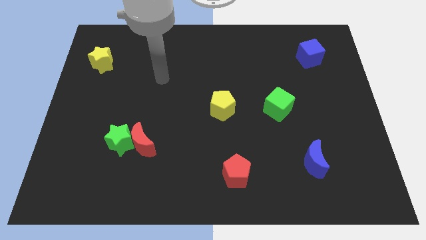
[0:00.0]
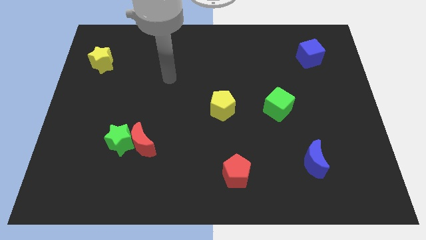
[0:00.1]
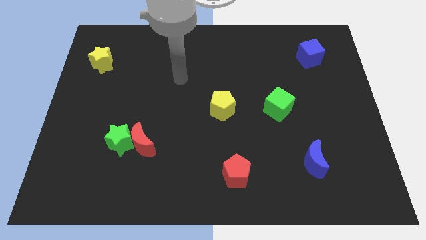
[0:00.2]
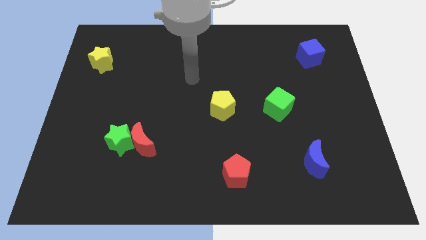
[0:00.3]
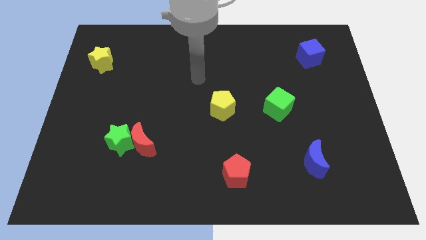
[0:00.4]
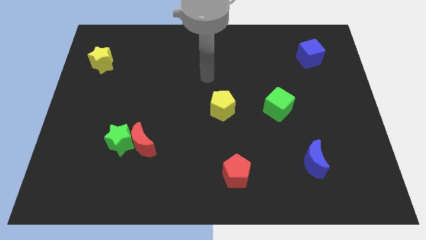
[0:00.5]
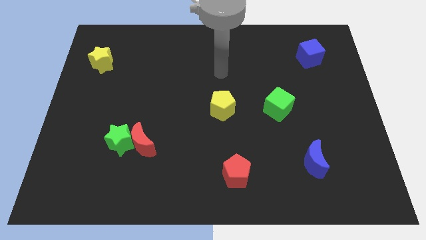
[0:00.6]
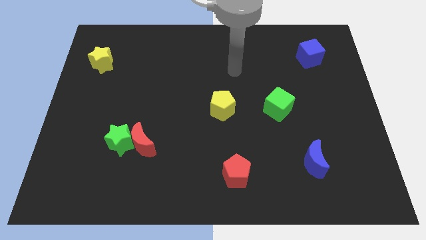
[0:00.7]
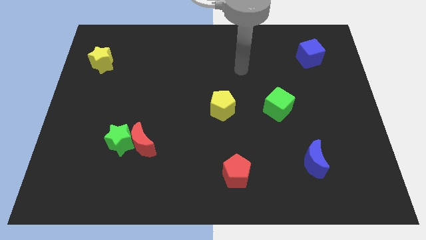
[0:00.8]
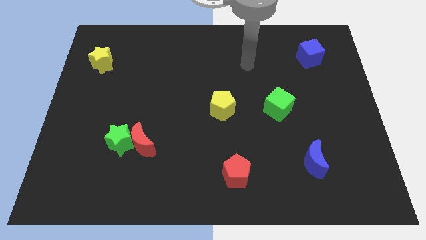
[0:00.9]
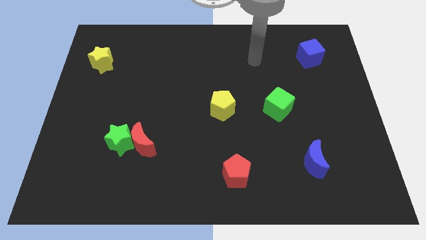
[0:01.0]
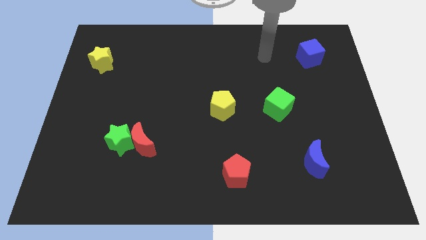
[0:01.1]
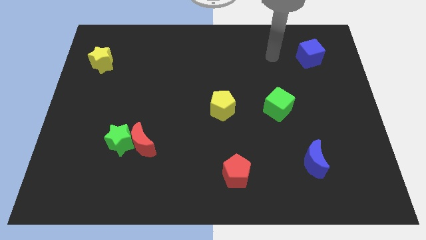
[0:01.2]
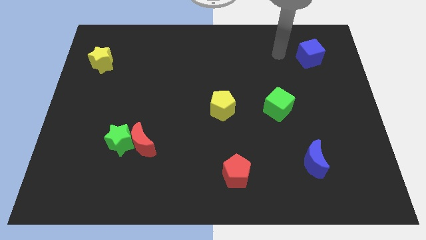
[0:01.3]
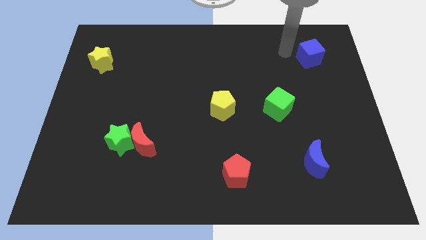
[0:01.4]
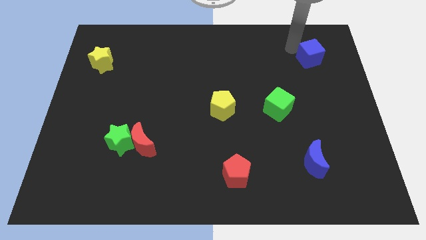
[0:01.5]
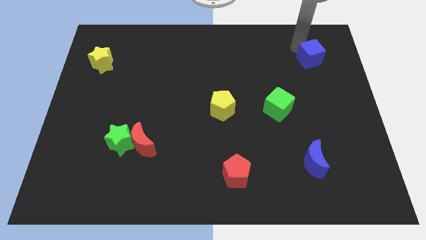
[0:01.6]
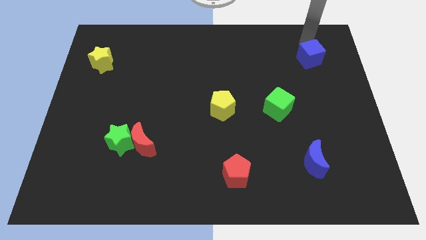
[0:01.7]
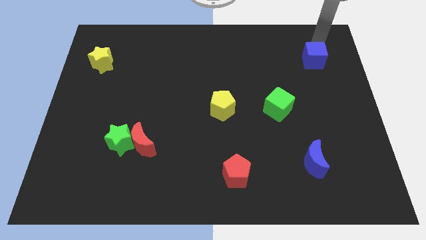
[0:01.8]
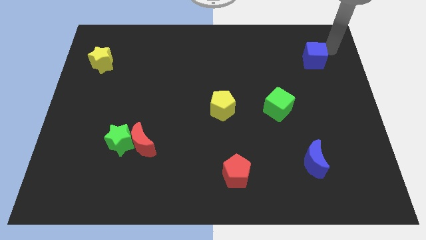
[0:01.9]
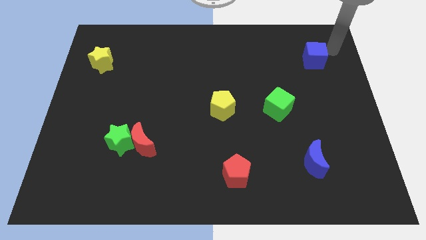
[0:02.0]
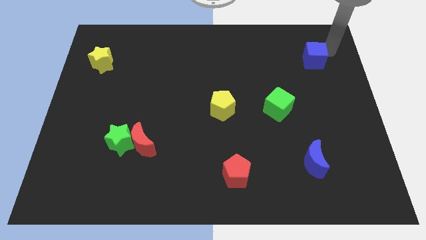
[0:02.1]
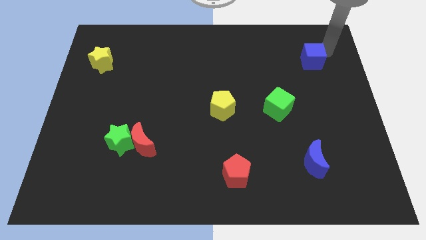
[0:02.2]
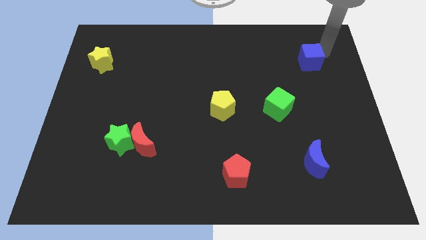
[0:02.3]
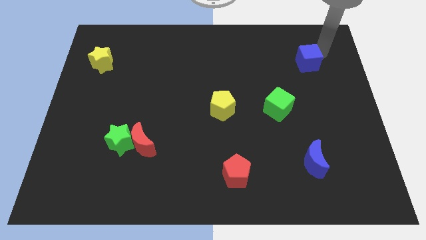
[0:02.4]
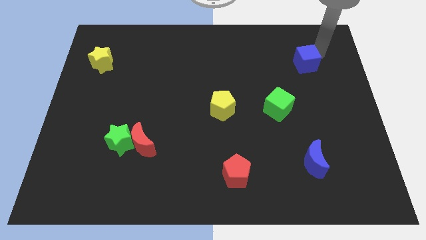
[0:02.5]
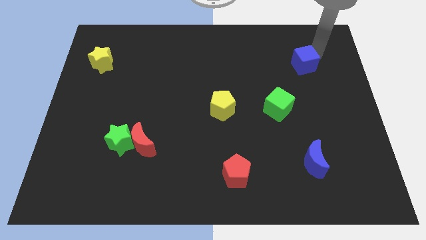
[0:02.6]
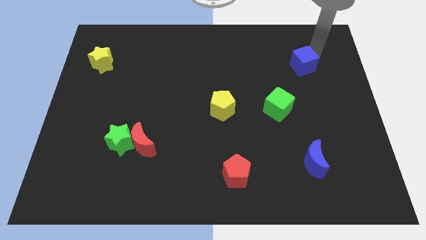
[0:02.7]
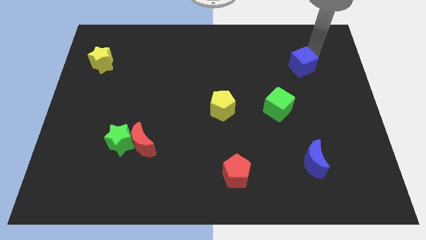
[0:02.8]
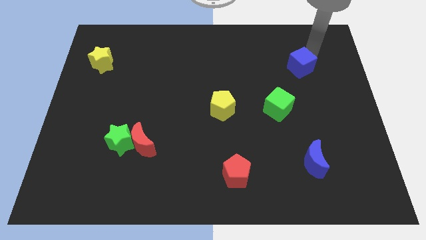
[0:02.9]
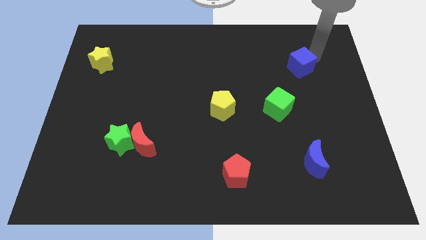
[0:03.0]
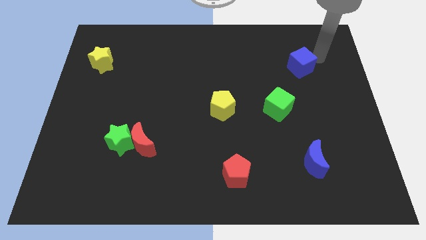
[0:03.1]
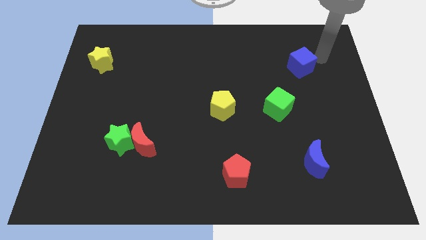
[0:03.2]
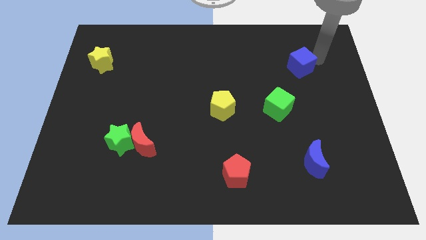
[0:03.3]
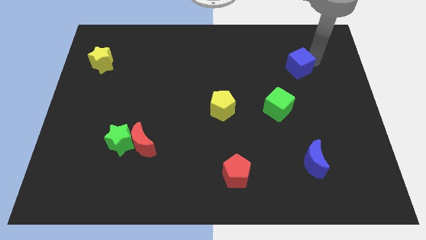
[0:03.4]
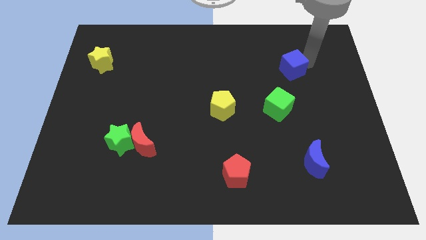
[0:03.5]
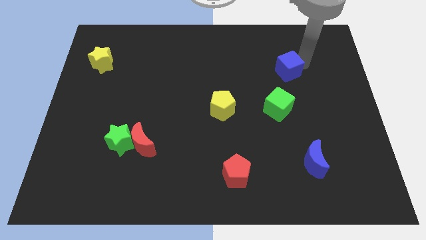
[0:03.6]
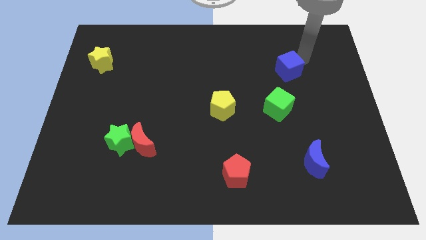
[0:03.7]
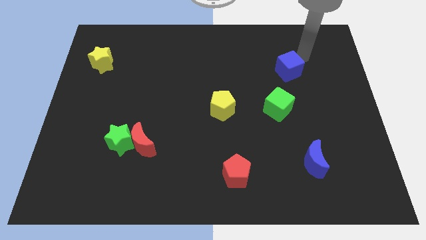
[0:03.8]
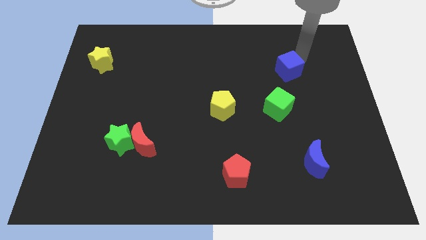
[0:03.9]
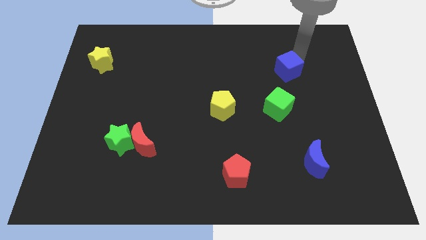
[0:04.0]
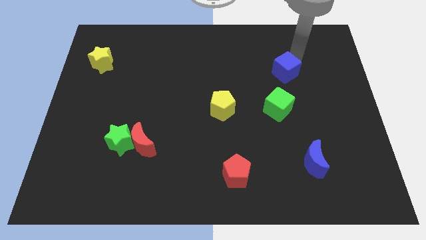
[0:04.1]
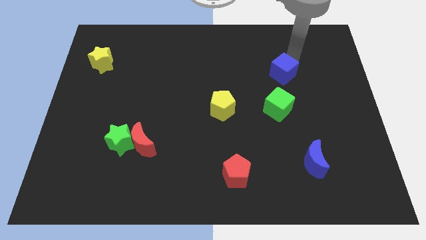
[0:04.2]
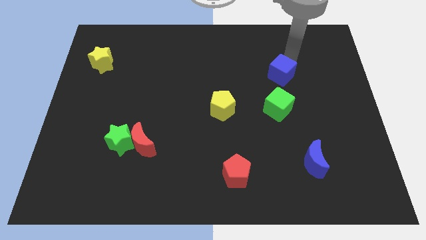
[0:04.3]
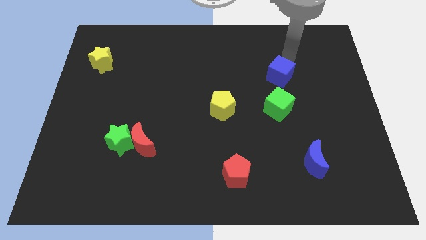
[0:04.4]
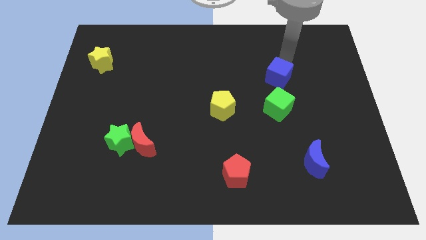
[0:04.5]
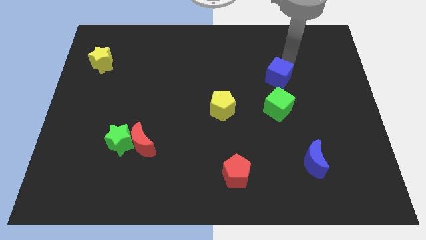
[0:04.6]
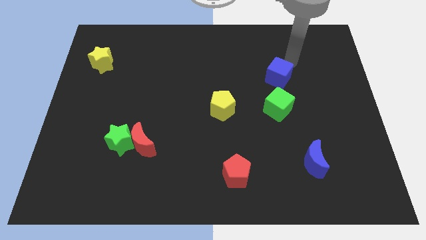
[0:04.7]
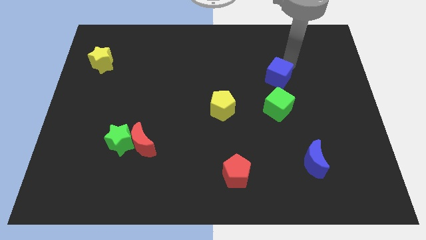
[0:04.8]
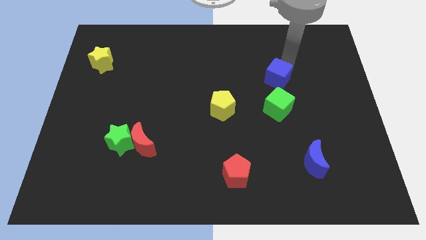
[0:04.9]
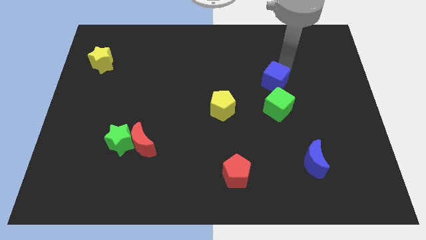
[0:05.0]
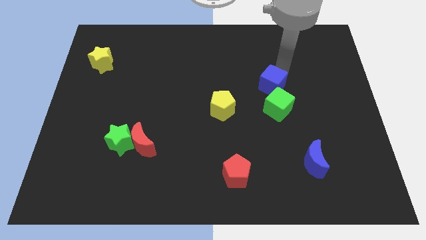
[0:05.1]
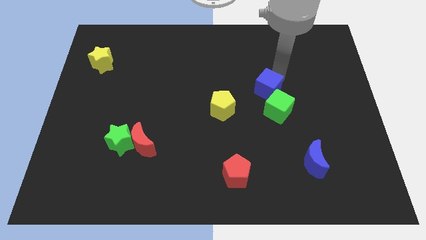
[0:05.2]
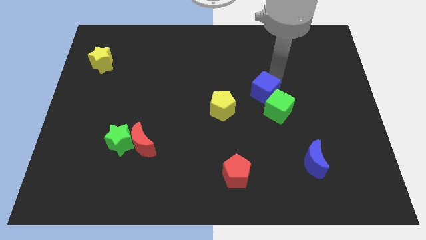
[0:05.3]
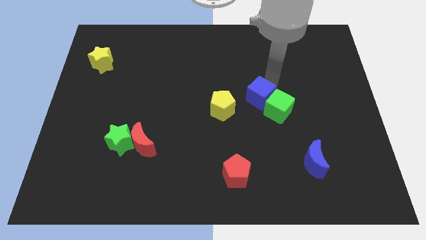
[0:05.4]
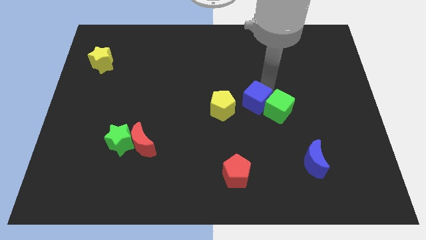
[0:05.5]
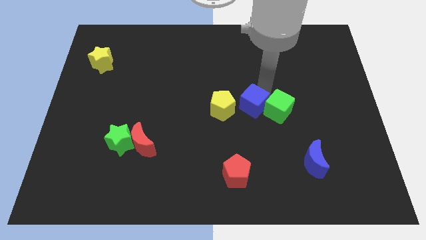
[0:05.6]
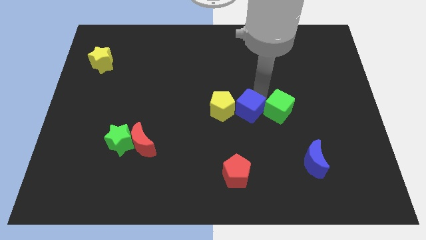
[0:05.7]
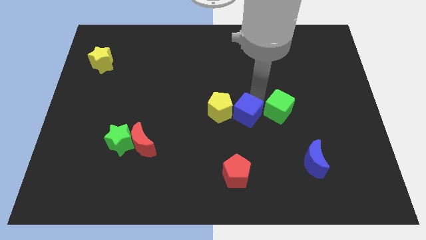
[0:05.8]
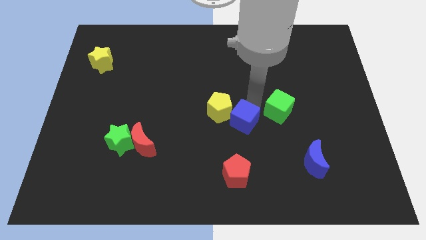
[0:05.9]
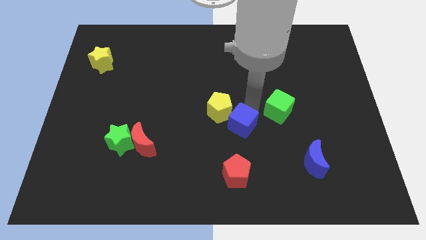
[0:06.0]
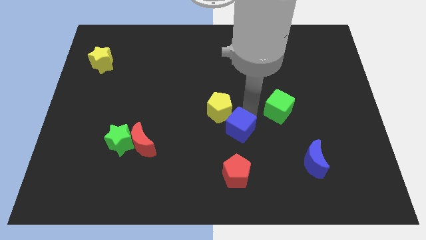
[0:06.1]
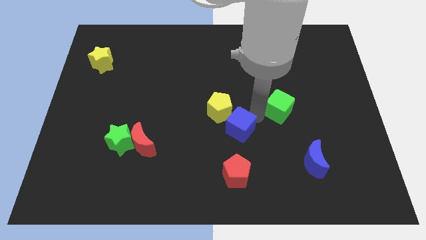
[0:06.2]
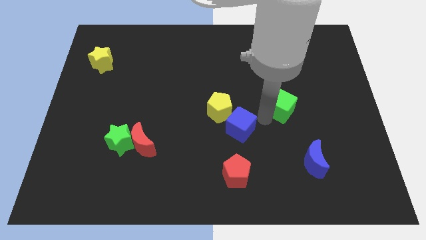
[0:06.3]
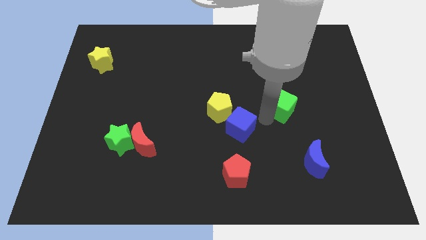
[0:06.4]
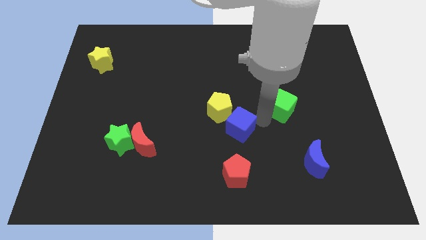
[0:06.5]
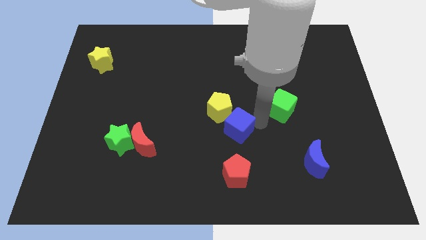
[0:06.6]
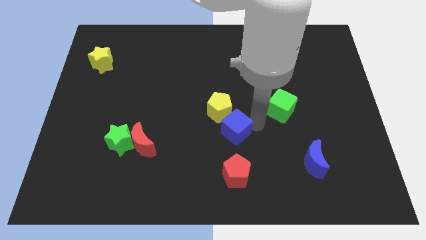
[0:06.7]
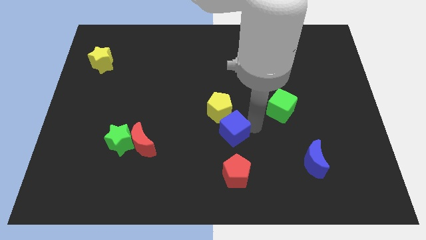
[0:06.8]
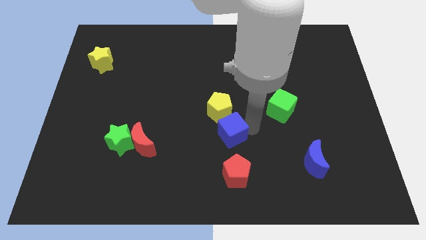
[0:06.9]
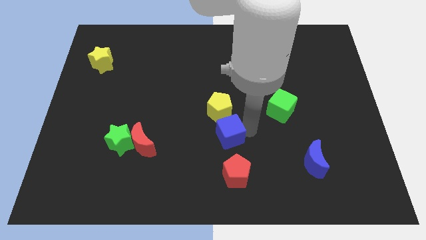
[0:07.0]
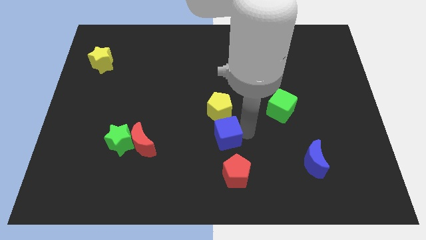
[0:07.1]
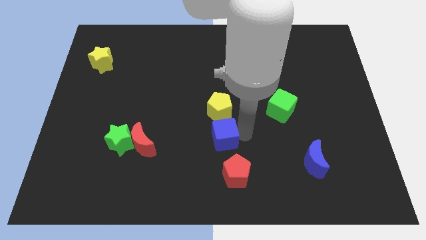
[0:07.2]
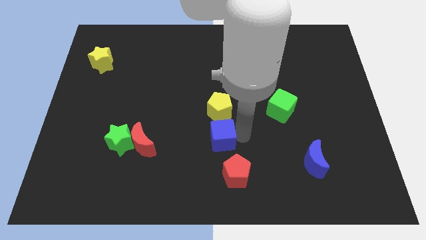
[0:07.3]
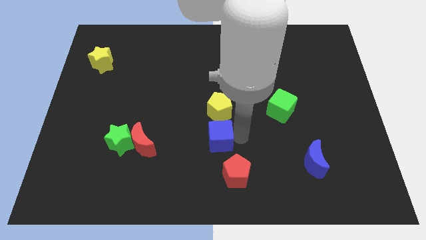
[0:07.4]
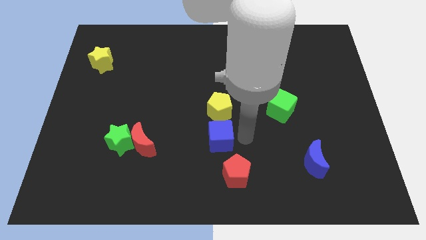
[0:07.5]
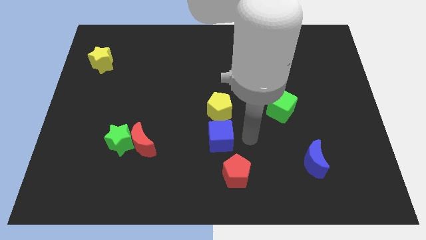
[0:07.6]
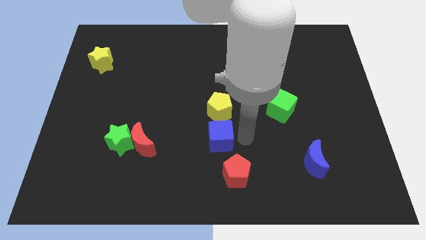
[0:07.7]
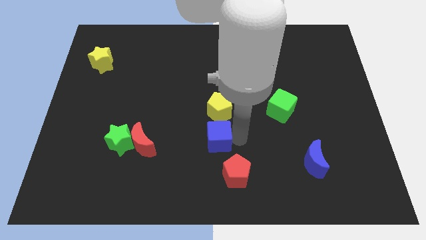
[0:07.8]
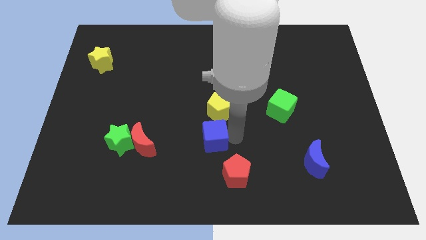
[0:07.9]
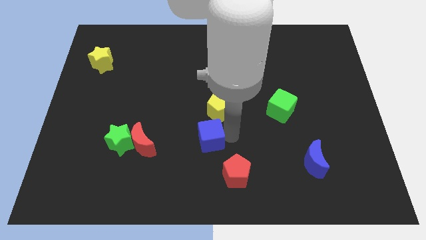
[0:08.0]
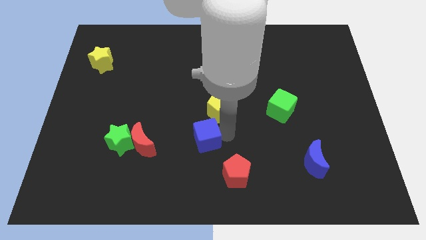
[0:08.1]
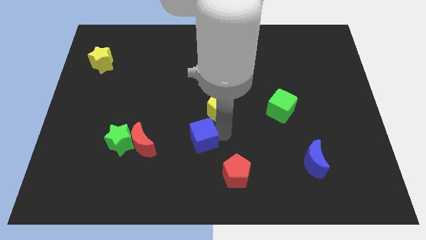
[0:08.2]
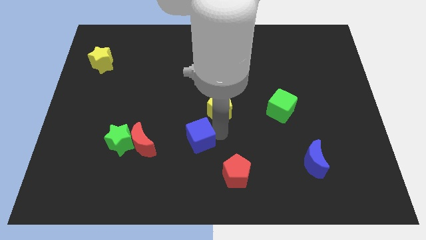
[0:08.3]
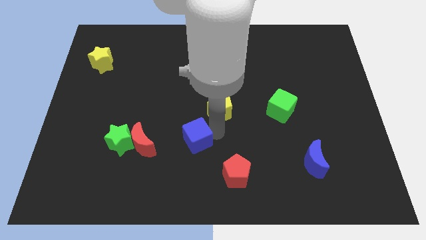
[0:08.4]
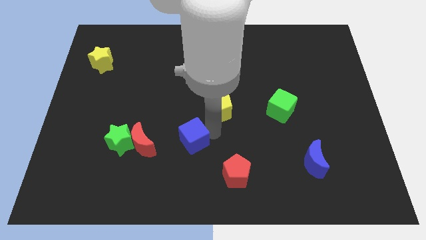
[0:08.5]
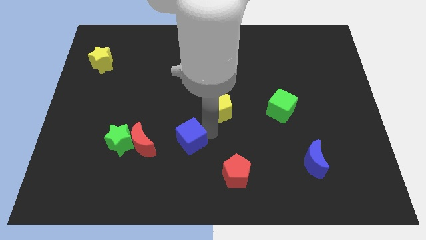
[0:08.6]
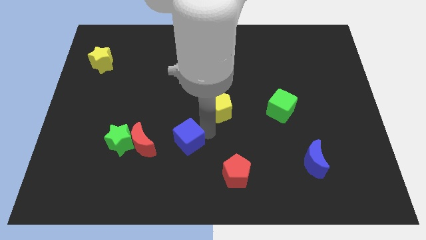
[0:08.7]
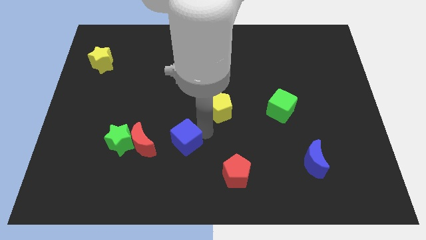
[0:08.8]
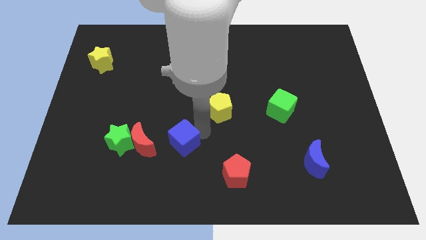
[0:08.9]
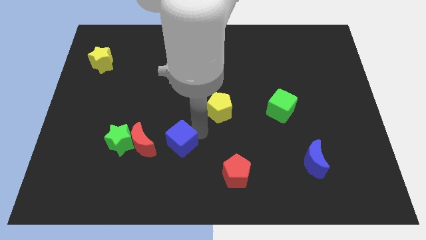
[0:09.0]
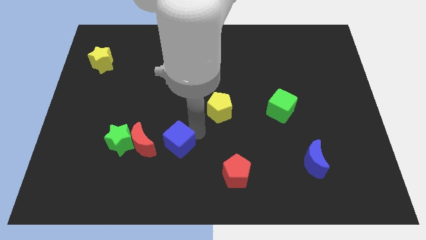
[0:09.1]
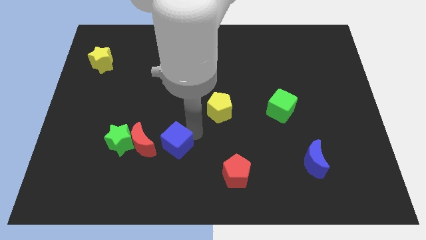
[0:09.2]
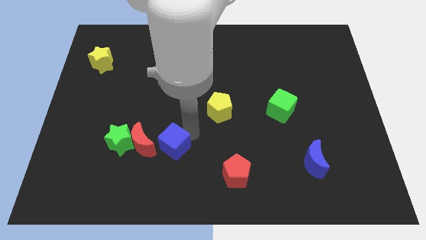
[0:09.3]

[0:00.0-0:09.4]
slide the blue cube diagonally down and to the right of the red moon
